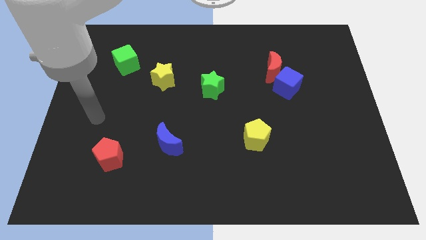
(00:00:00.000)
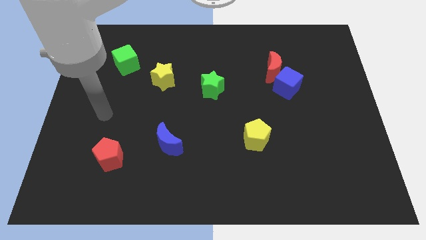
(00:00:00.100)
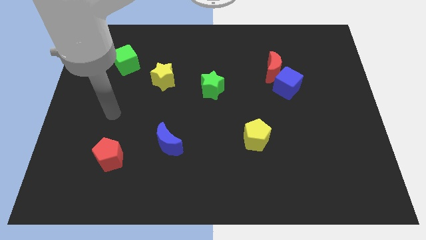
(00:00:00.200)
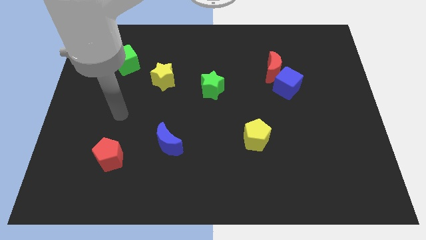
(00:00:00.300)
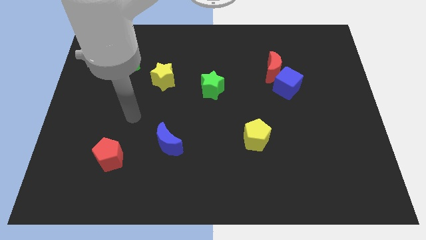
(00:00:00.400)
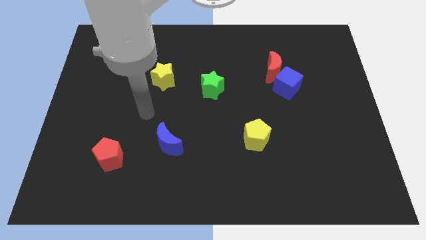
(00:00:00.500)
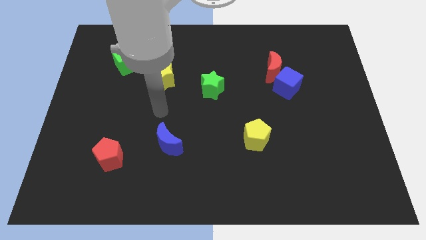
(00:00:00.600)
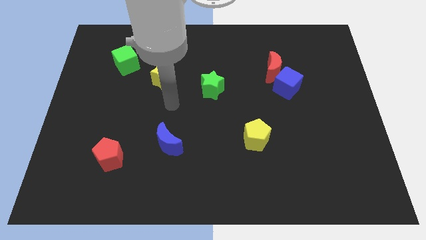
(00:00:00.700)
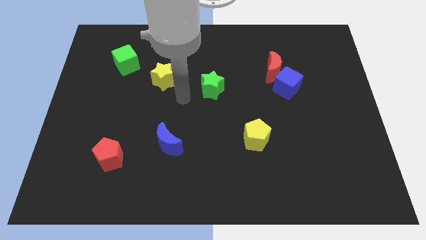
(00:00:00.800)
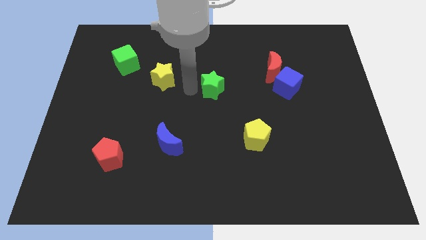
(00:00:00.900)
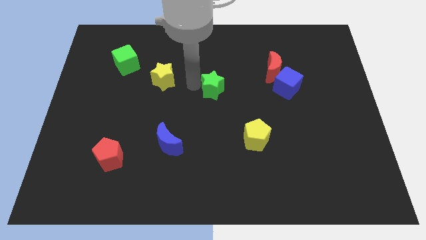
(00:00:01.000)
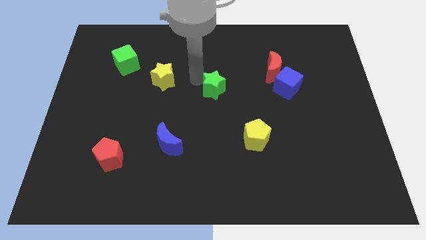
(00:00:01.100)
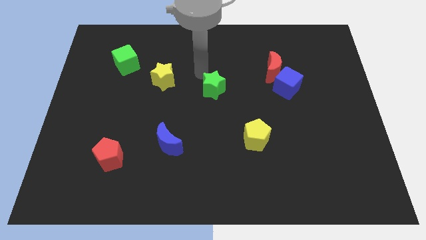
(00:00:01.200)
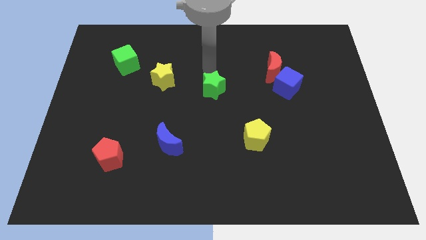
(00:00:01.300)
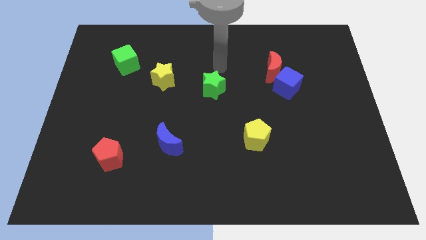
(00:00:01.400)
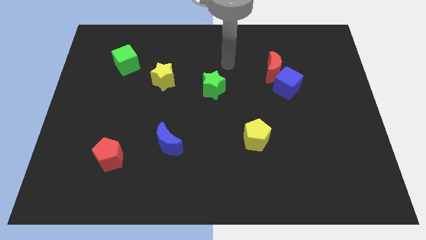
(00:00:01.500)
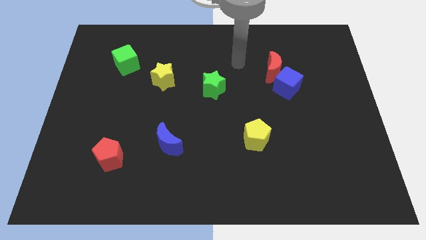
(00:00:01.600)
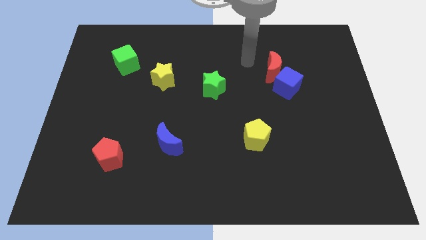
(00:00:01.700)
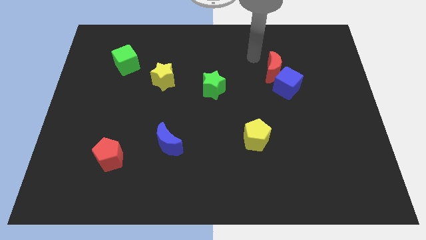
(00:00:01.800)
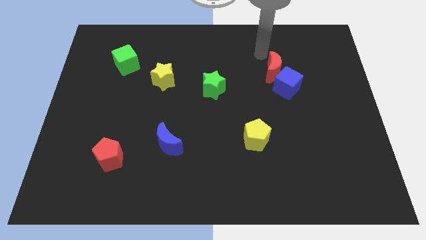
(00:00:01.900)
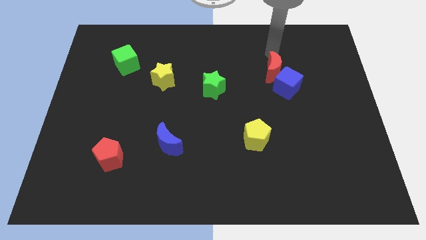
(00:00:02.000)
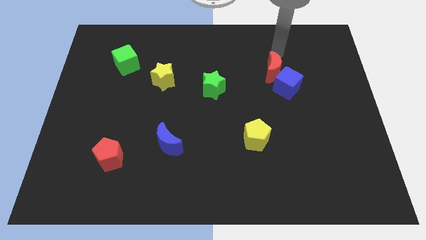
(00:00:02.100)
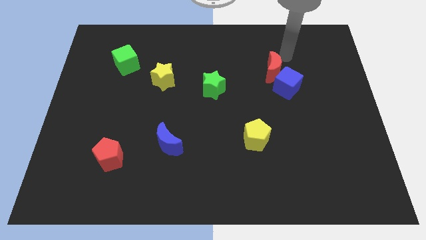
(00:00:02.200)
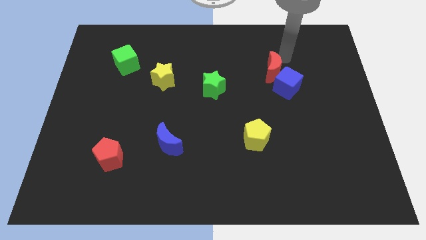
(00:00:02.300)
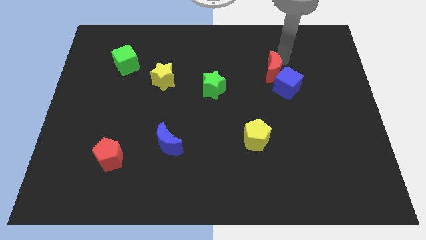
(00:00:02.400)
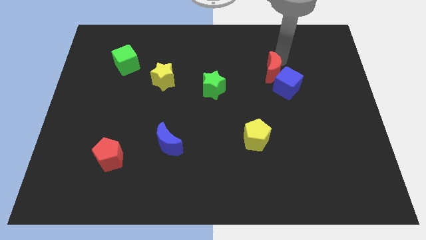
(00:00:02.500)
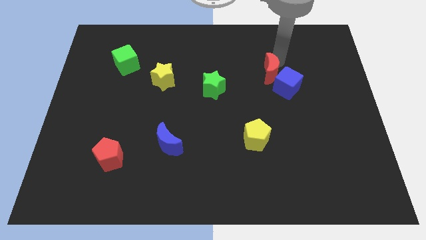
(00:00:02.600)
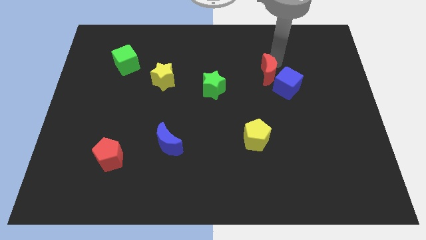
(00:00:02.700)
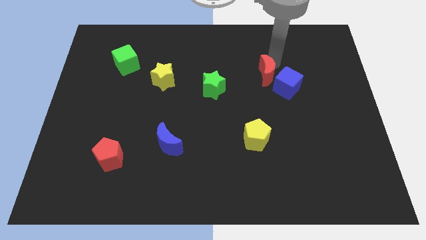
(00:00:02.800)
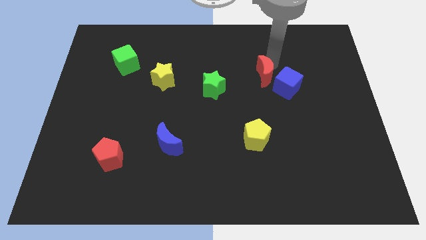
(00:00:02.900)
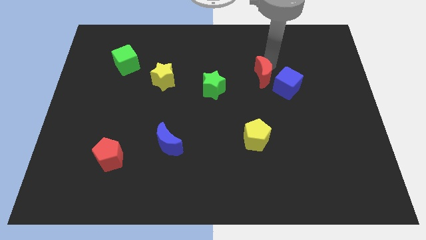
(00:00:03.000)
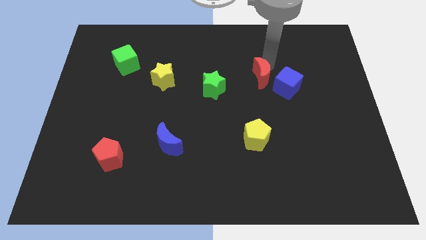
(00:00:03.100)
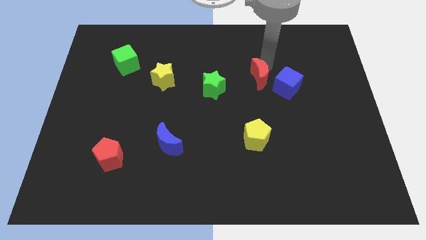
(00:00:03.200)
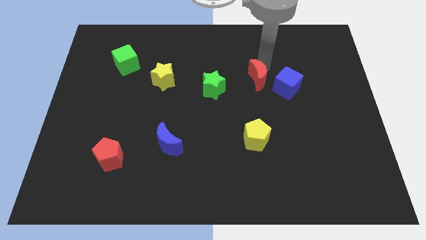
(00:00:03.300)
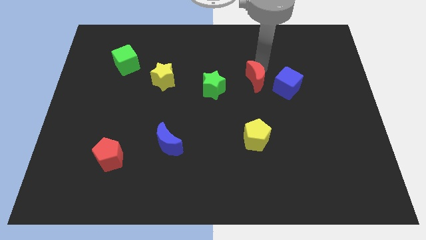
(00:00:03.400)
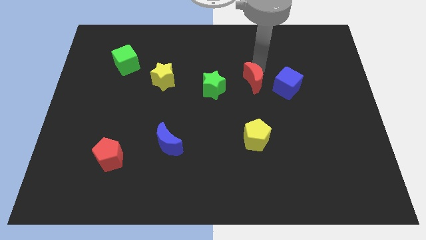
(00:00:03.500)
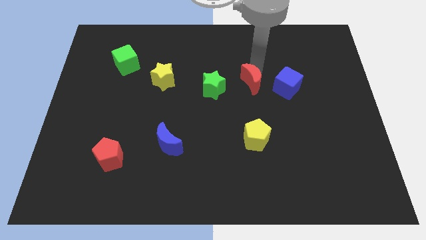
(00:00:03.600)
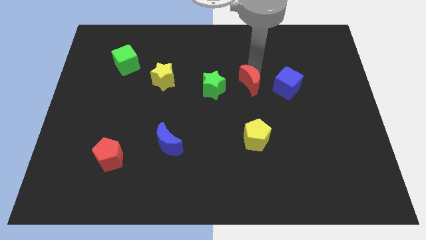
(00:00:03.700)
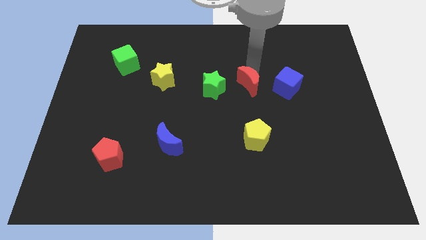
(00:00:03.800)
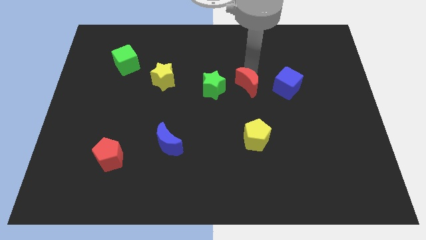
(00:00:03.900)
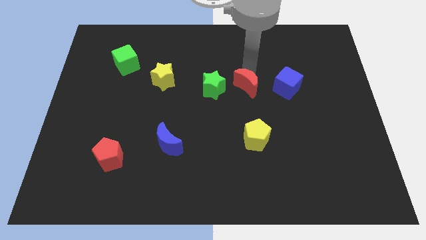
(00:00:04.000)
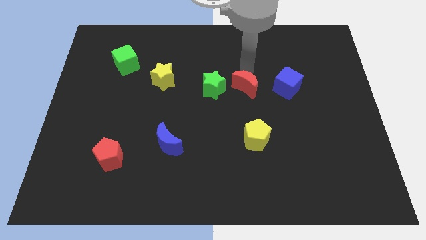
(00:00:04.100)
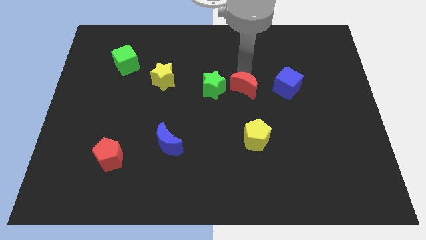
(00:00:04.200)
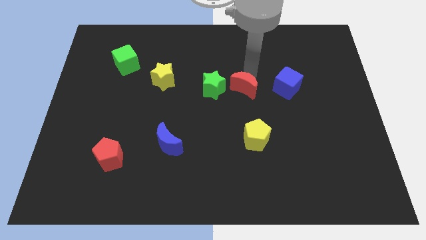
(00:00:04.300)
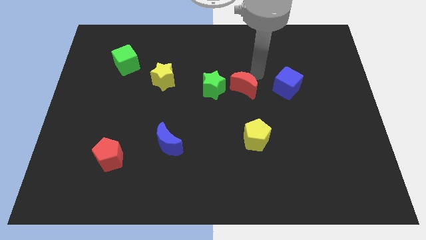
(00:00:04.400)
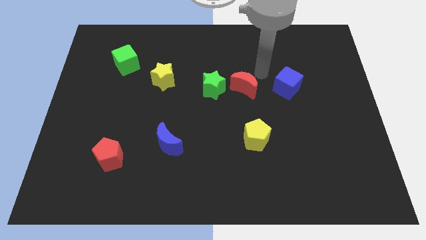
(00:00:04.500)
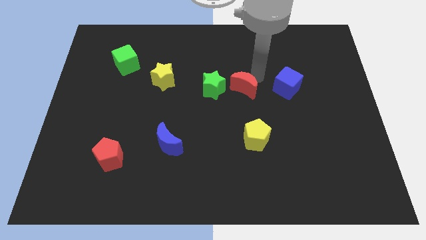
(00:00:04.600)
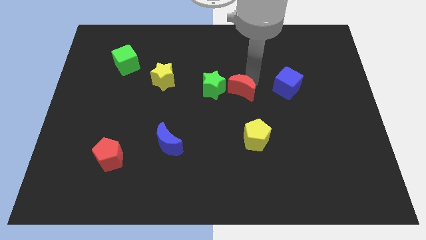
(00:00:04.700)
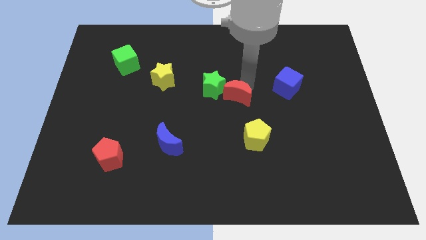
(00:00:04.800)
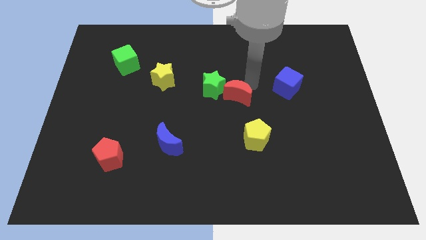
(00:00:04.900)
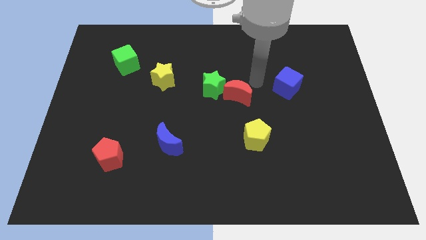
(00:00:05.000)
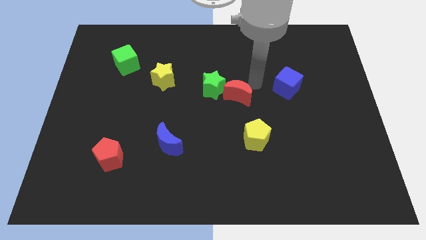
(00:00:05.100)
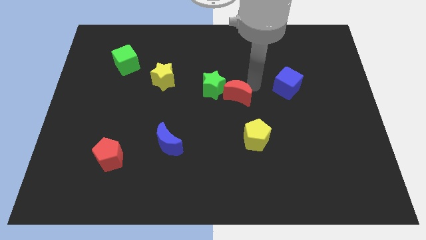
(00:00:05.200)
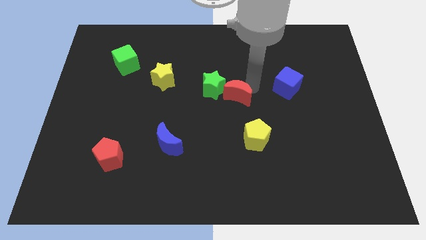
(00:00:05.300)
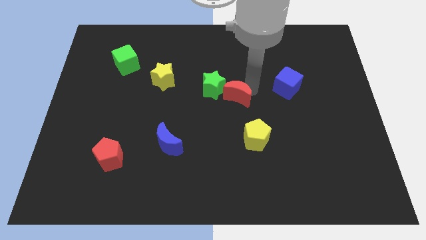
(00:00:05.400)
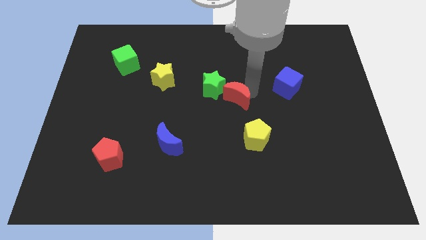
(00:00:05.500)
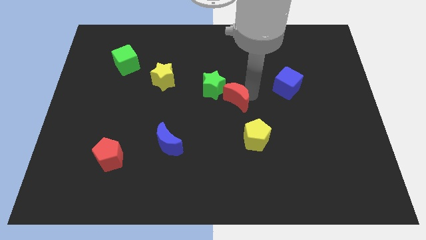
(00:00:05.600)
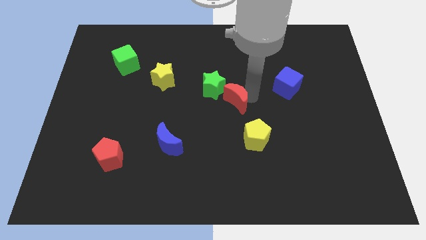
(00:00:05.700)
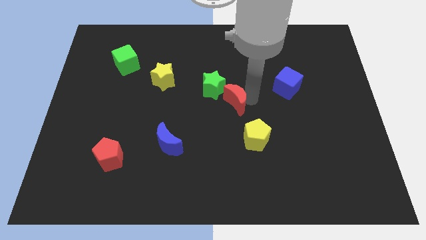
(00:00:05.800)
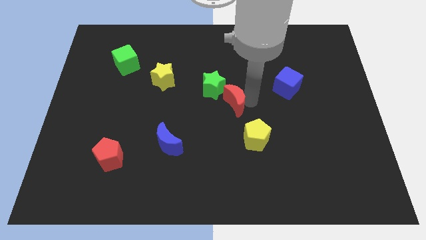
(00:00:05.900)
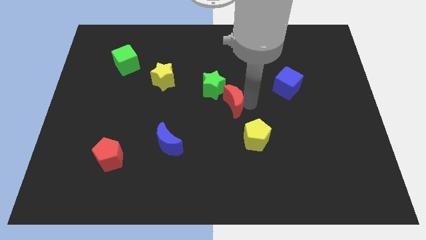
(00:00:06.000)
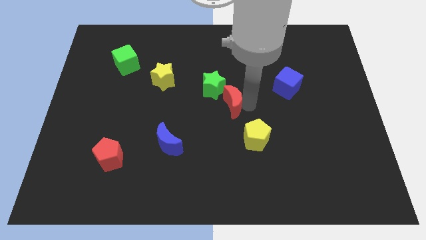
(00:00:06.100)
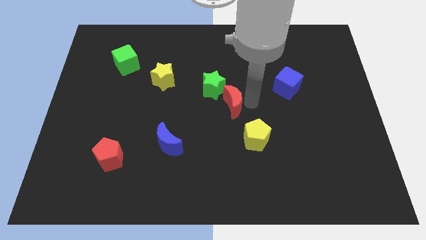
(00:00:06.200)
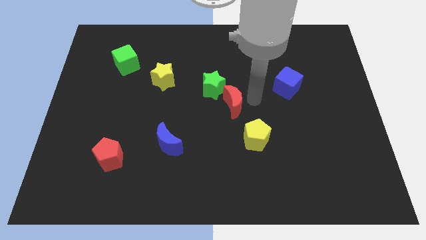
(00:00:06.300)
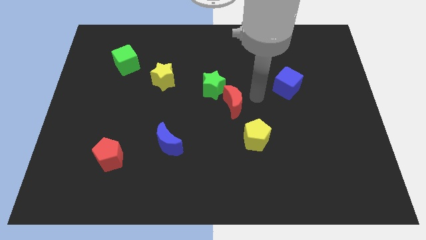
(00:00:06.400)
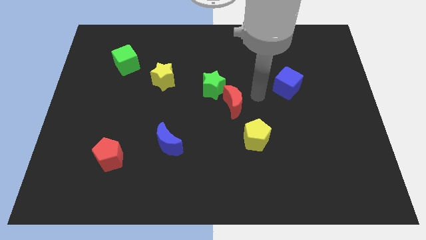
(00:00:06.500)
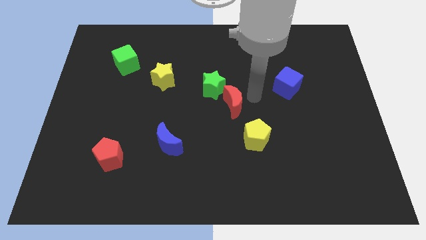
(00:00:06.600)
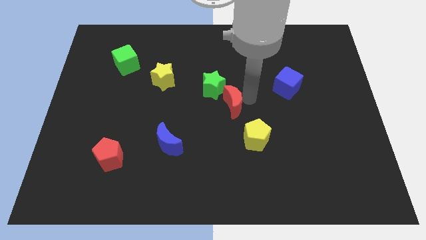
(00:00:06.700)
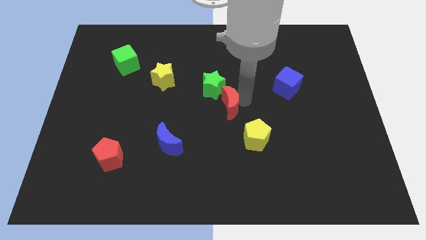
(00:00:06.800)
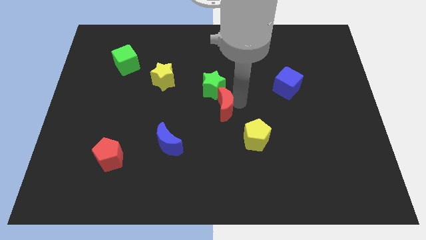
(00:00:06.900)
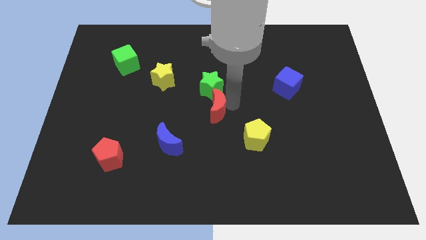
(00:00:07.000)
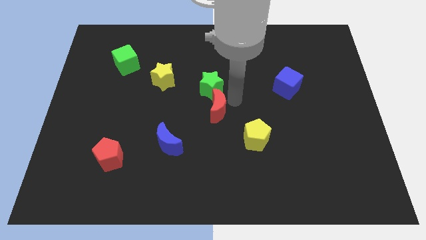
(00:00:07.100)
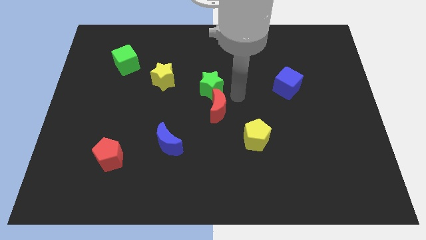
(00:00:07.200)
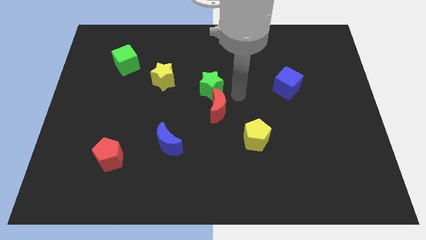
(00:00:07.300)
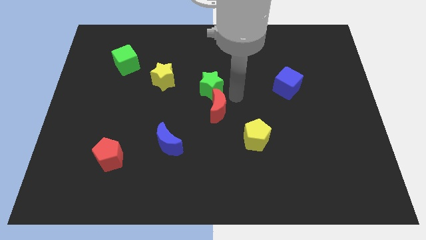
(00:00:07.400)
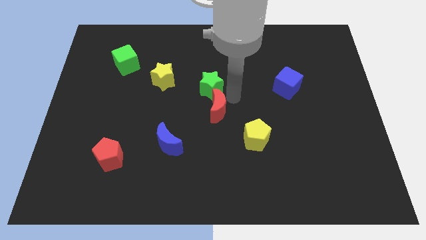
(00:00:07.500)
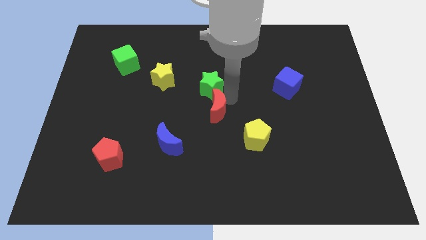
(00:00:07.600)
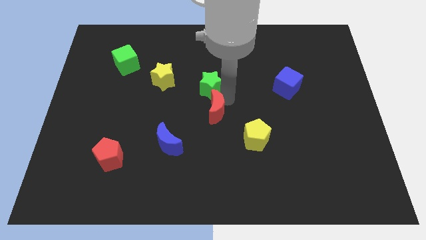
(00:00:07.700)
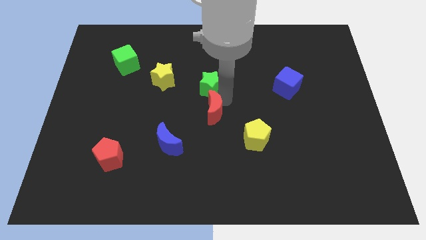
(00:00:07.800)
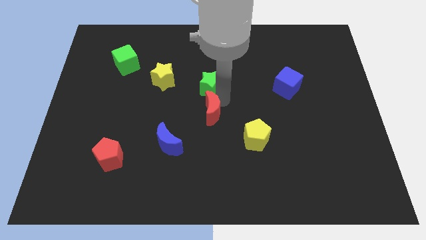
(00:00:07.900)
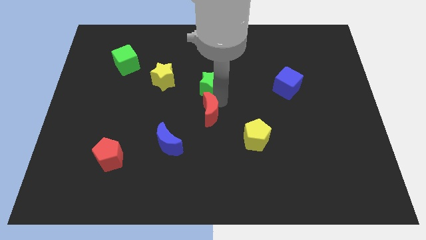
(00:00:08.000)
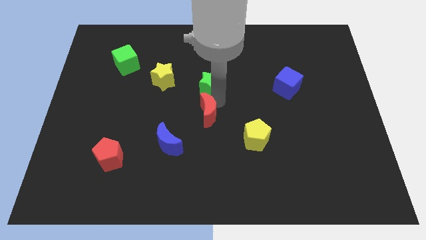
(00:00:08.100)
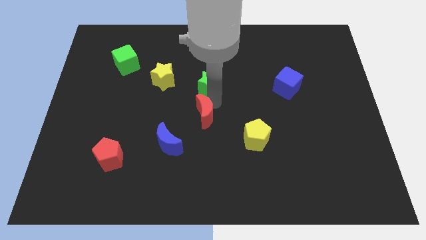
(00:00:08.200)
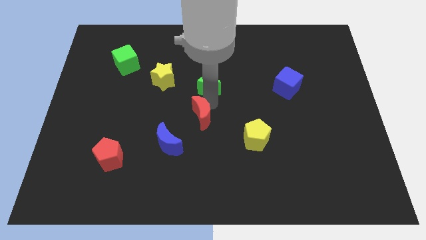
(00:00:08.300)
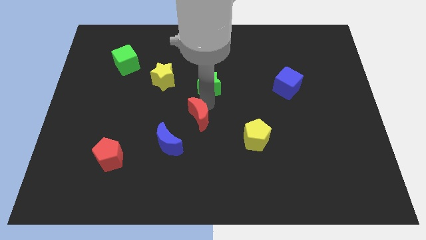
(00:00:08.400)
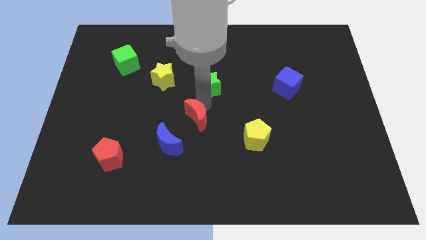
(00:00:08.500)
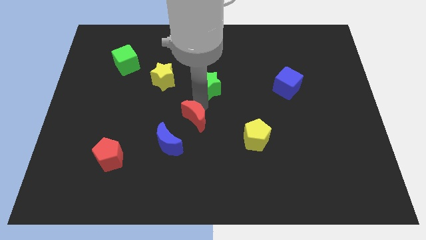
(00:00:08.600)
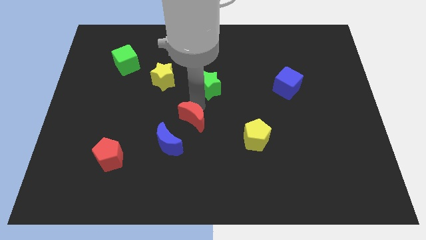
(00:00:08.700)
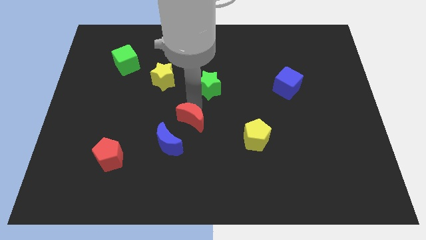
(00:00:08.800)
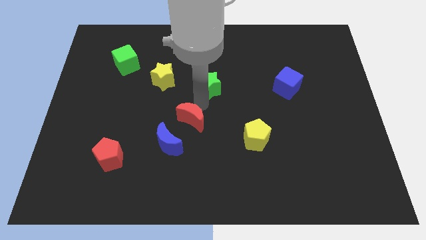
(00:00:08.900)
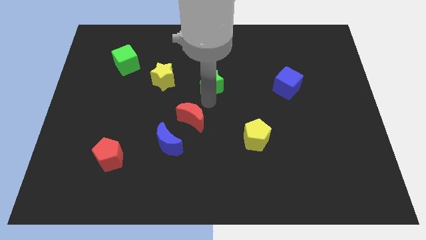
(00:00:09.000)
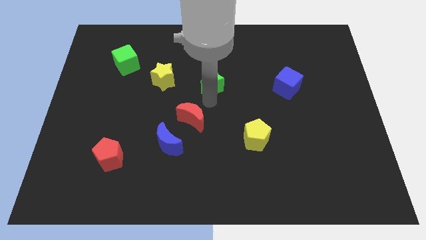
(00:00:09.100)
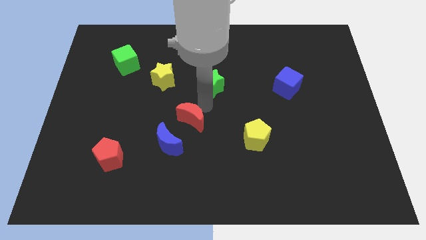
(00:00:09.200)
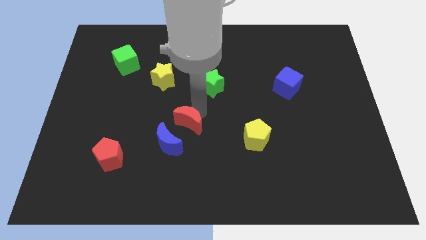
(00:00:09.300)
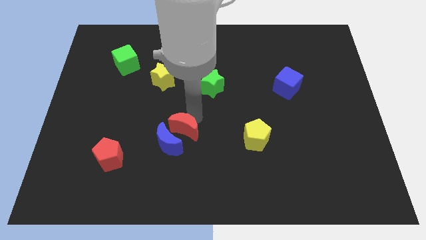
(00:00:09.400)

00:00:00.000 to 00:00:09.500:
move the red moon to the blue moon
